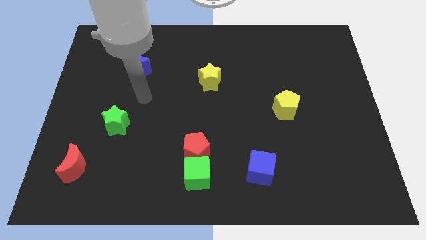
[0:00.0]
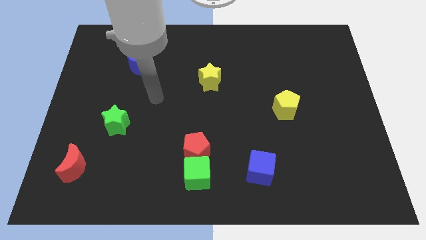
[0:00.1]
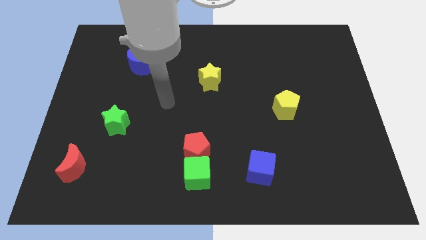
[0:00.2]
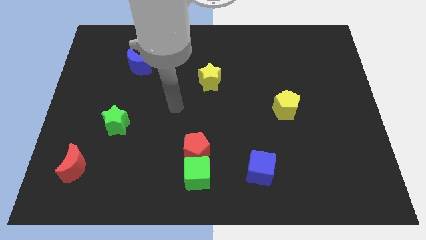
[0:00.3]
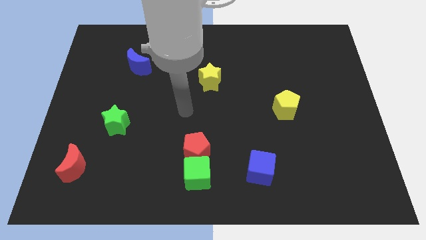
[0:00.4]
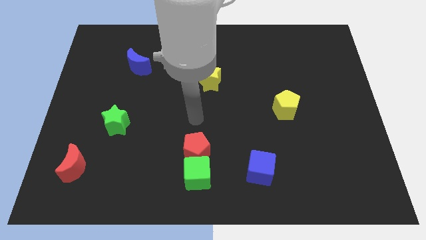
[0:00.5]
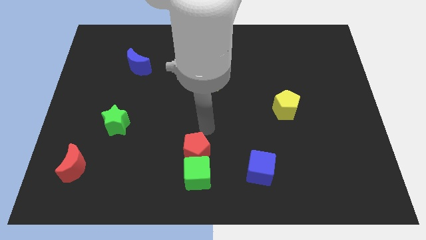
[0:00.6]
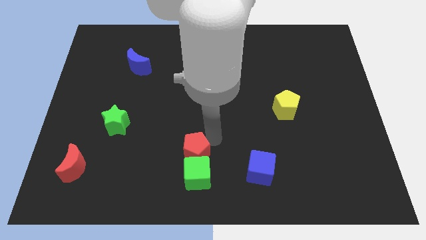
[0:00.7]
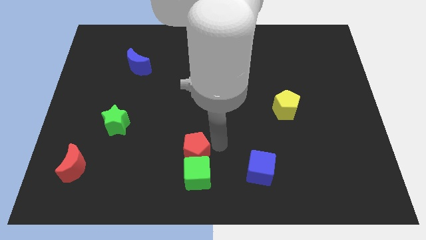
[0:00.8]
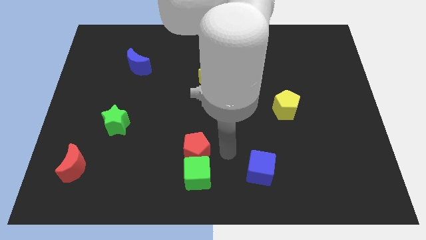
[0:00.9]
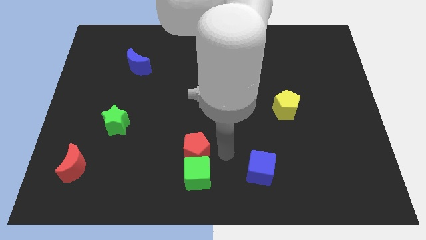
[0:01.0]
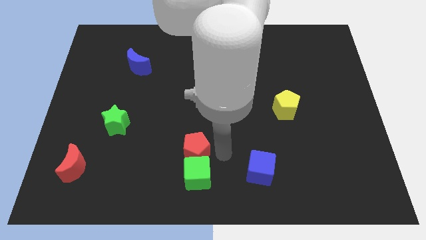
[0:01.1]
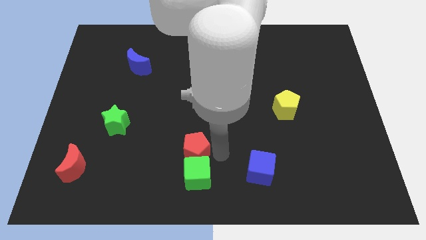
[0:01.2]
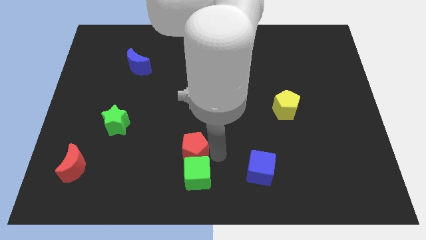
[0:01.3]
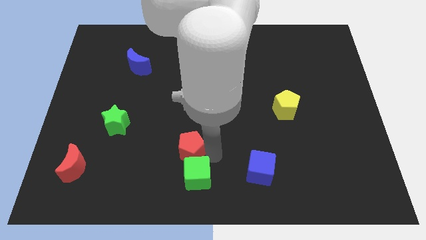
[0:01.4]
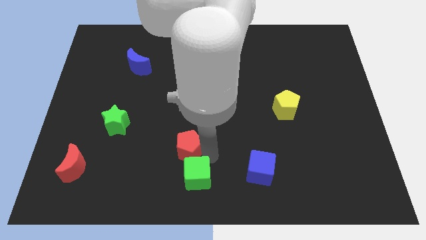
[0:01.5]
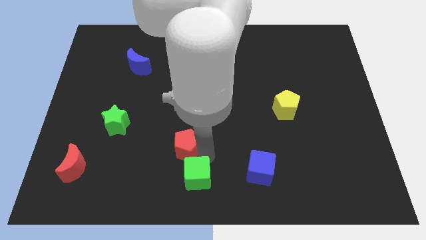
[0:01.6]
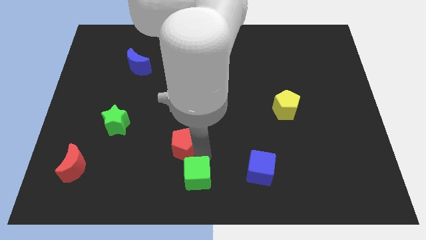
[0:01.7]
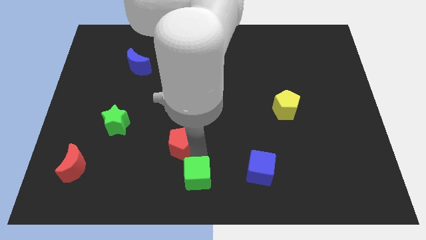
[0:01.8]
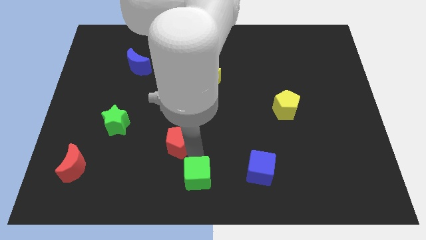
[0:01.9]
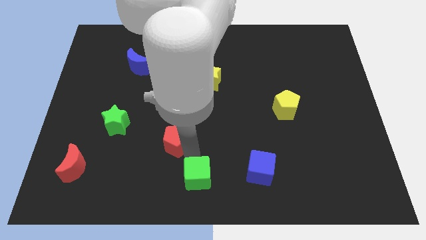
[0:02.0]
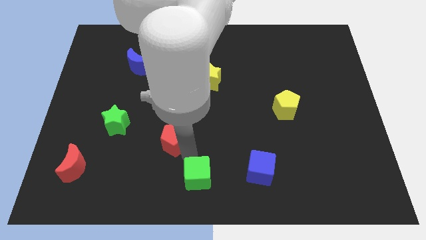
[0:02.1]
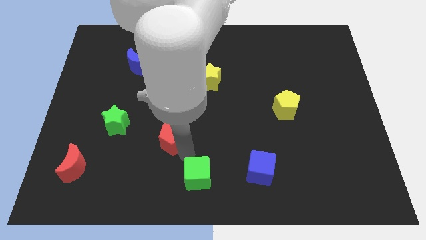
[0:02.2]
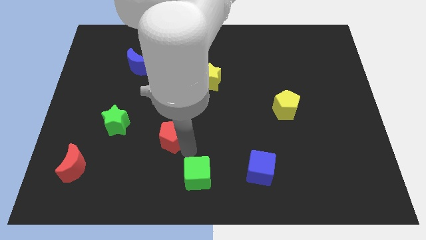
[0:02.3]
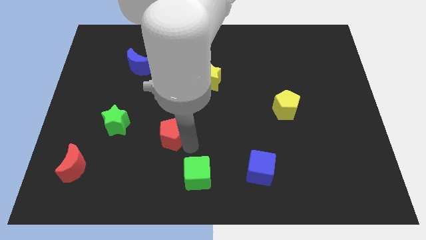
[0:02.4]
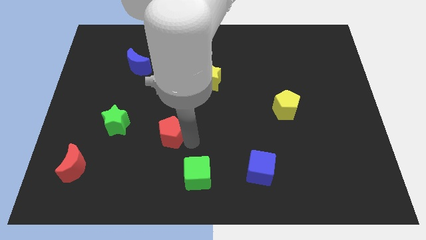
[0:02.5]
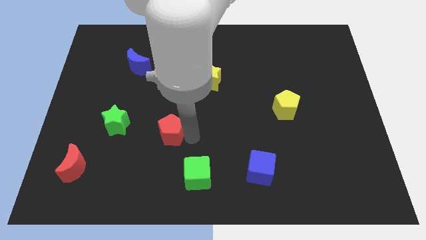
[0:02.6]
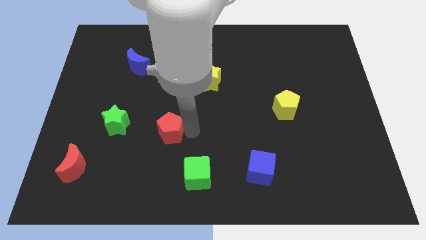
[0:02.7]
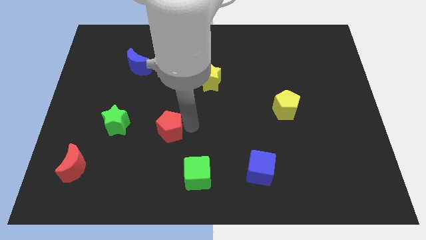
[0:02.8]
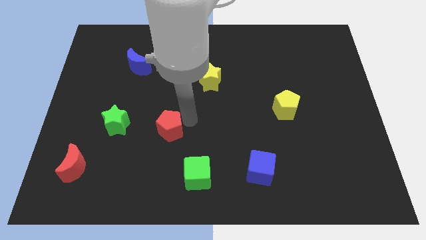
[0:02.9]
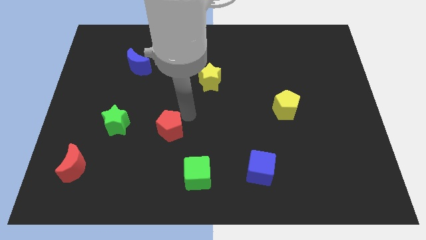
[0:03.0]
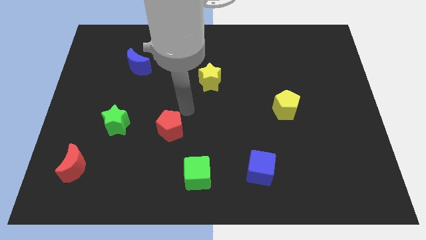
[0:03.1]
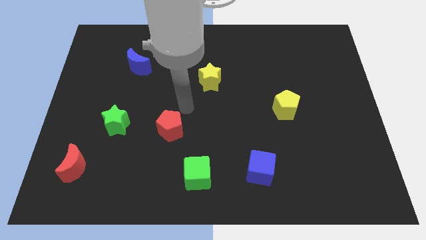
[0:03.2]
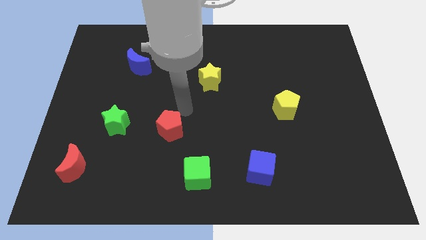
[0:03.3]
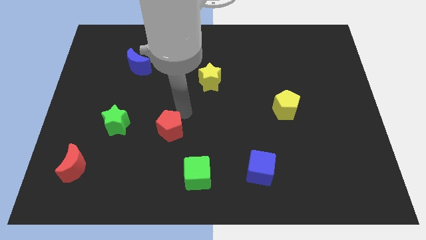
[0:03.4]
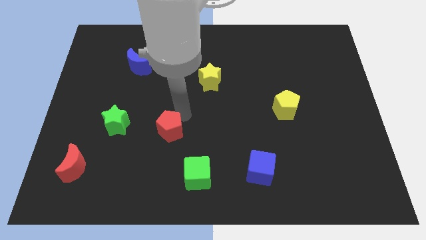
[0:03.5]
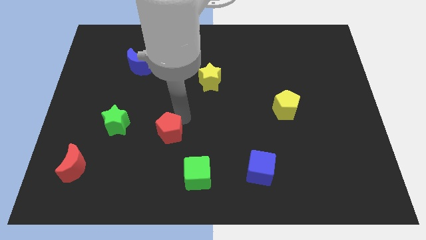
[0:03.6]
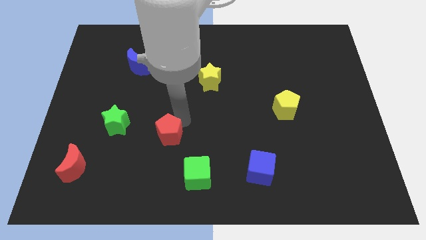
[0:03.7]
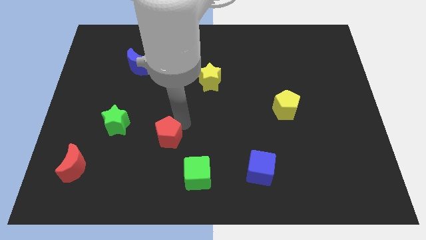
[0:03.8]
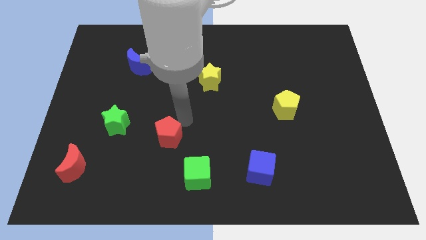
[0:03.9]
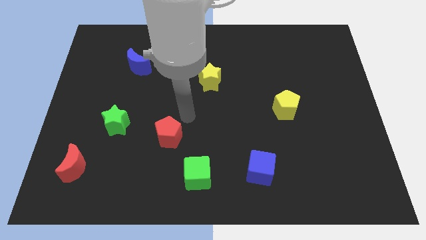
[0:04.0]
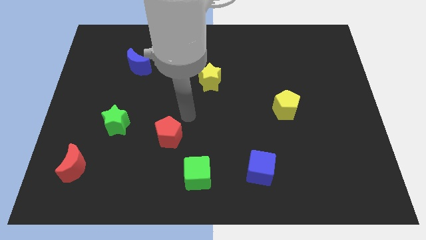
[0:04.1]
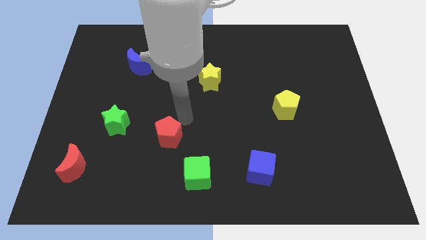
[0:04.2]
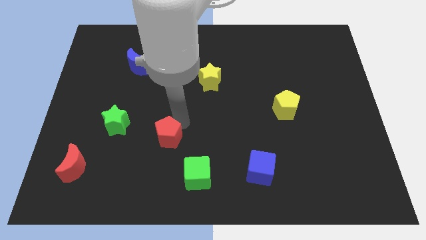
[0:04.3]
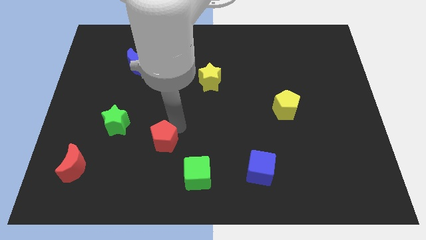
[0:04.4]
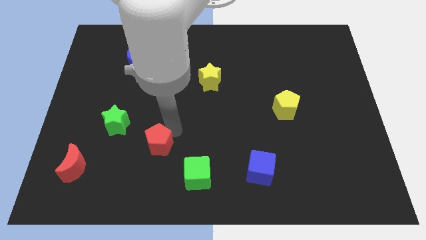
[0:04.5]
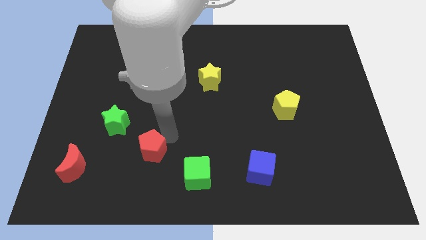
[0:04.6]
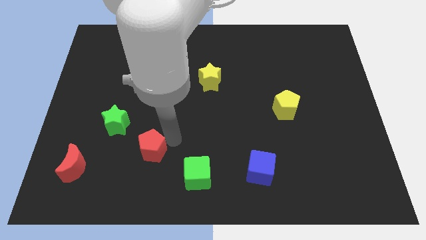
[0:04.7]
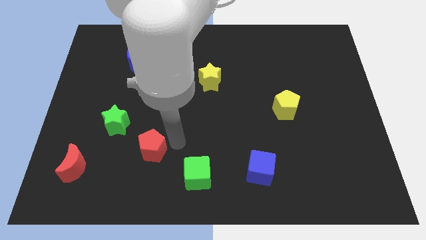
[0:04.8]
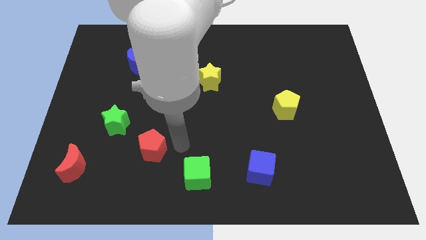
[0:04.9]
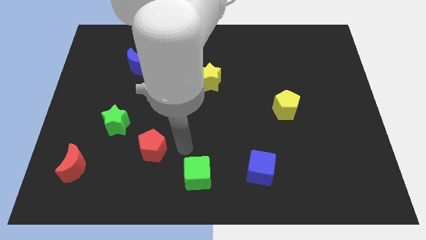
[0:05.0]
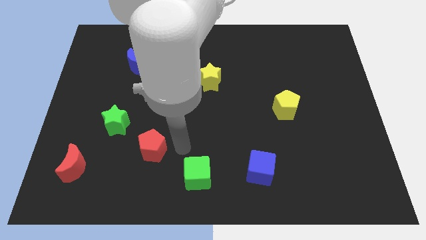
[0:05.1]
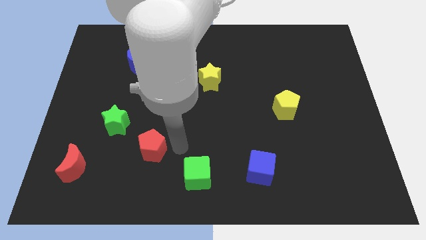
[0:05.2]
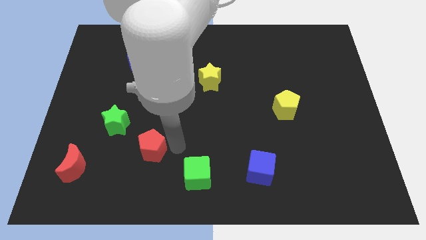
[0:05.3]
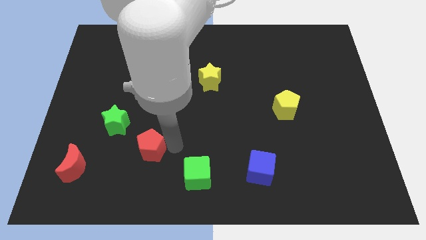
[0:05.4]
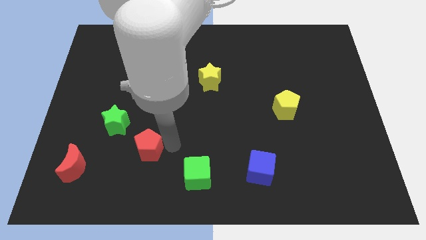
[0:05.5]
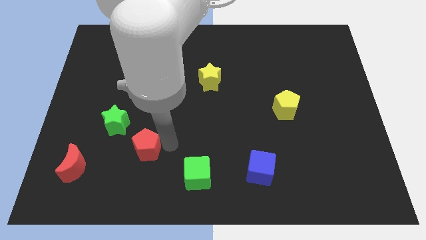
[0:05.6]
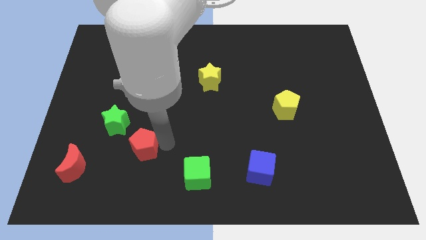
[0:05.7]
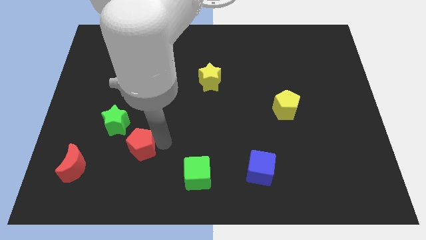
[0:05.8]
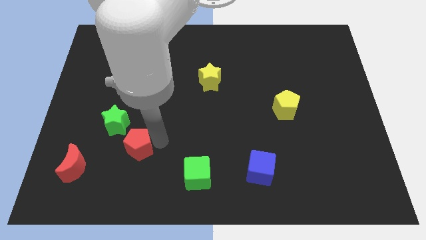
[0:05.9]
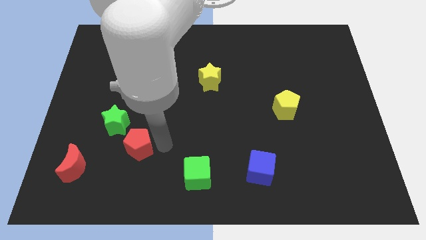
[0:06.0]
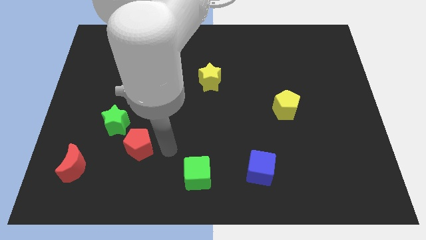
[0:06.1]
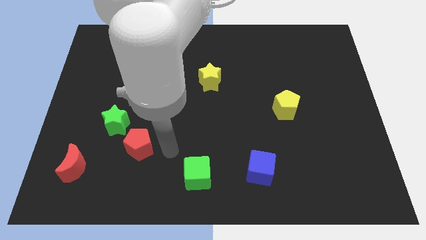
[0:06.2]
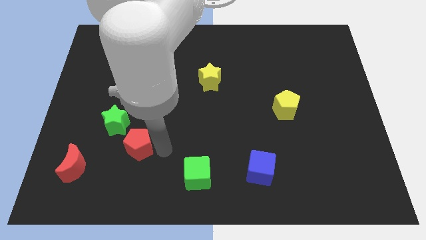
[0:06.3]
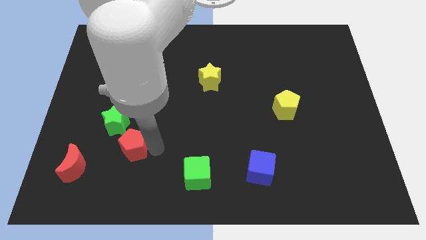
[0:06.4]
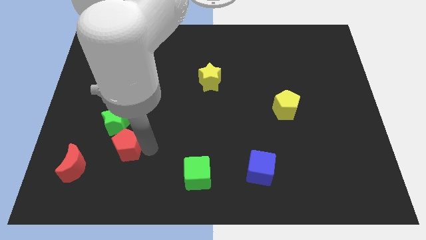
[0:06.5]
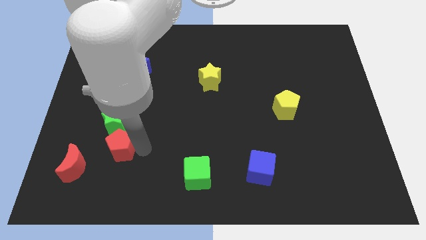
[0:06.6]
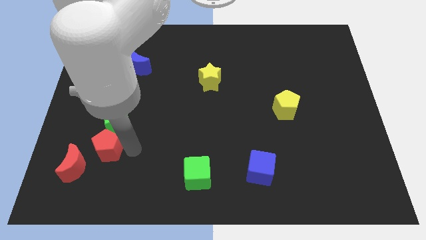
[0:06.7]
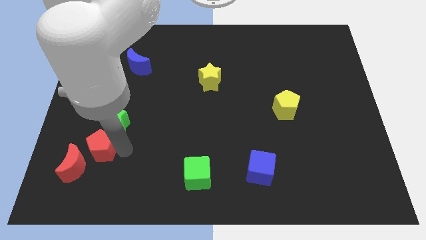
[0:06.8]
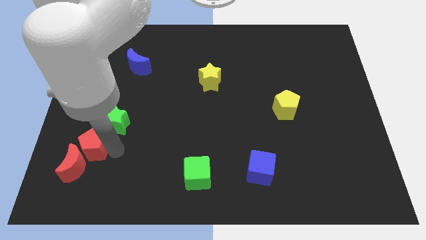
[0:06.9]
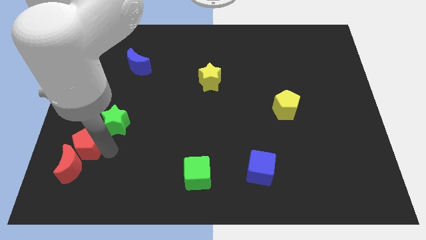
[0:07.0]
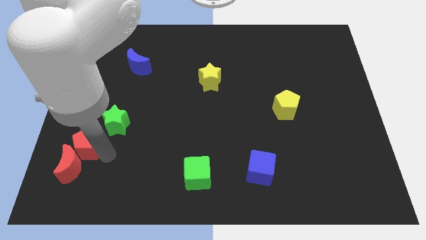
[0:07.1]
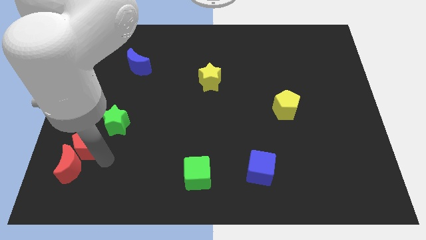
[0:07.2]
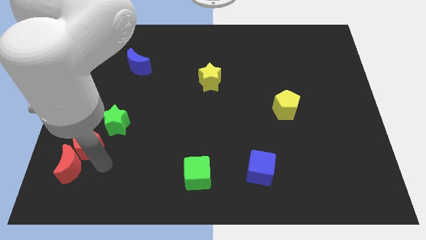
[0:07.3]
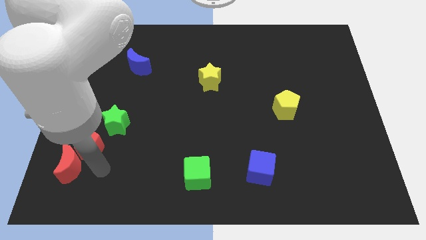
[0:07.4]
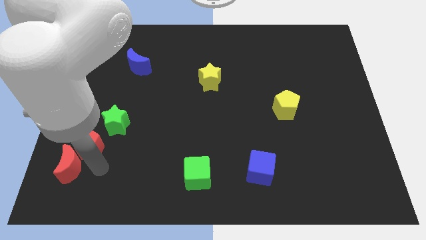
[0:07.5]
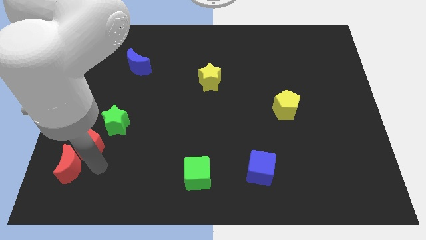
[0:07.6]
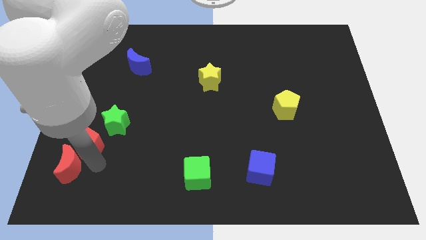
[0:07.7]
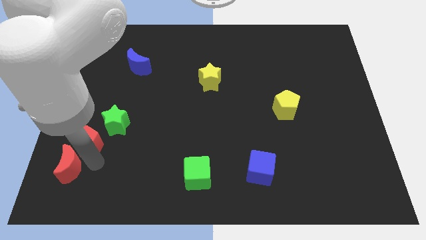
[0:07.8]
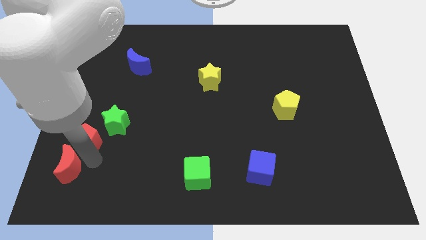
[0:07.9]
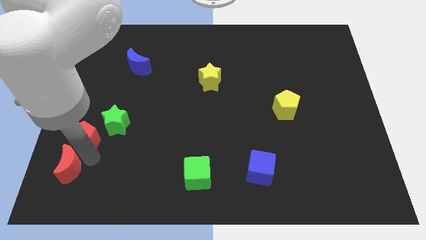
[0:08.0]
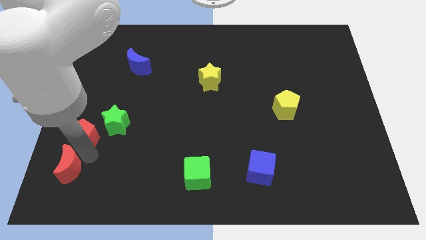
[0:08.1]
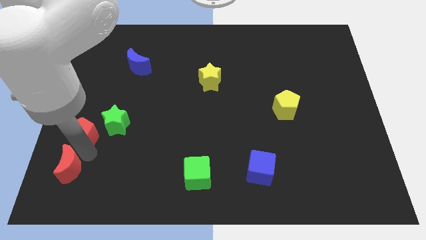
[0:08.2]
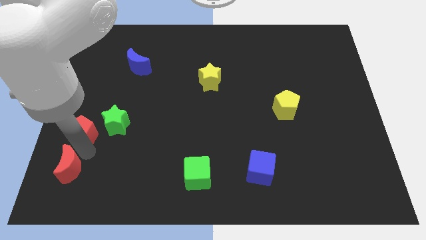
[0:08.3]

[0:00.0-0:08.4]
slide the red pentagon to the left side
